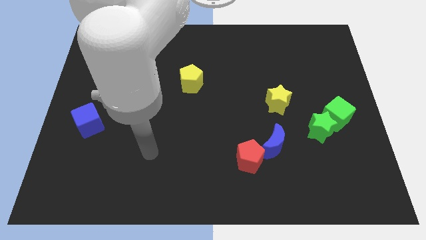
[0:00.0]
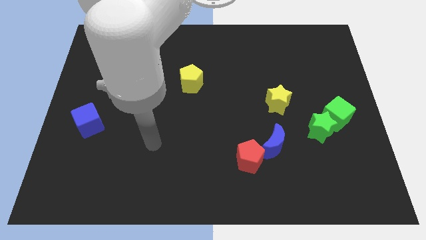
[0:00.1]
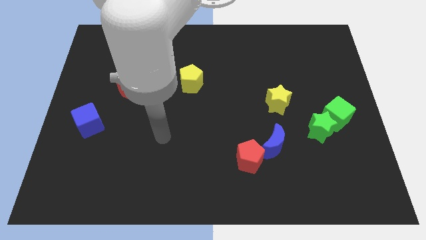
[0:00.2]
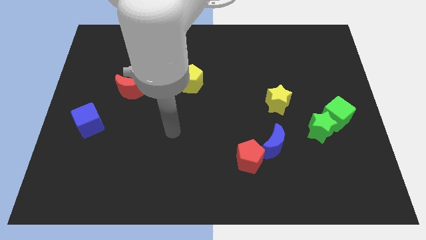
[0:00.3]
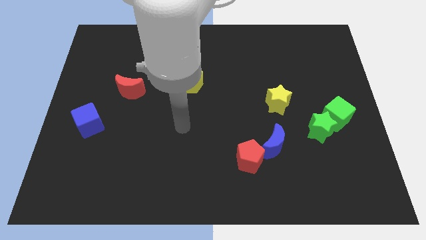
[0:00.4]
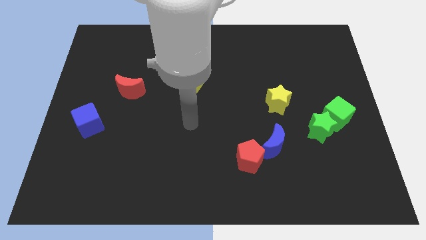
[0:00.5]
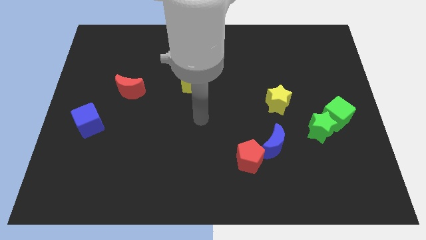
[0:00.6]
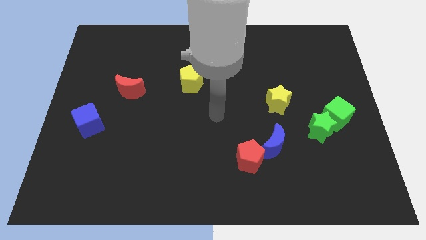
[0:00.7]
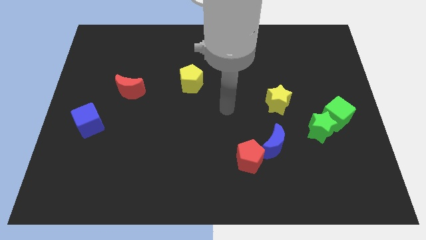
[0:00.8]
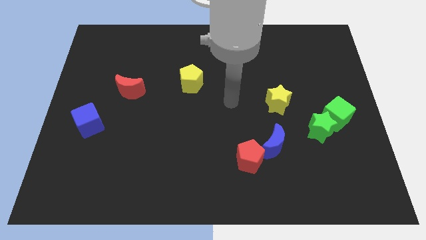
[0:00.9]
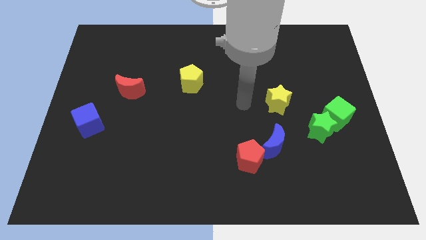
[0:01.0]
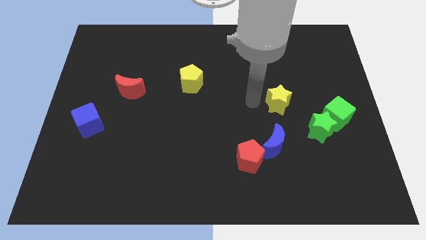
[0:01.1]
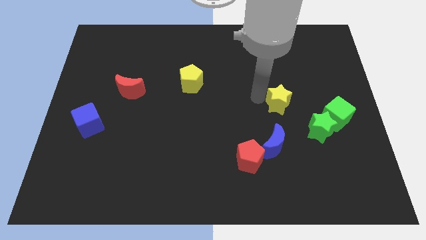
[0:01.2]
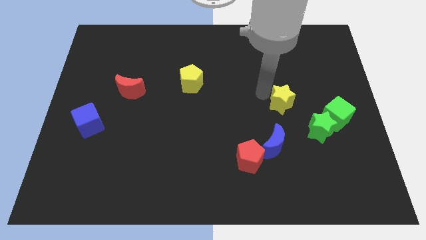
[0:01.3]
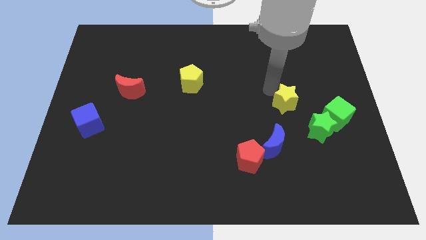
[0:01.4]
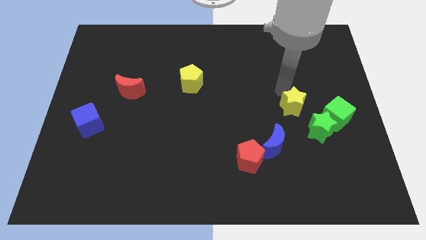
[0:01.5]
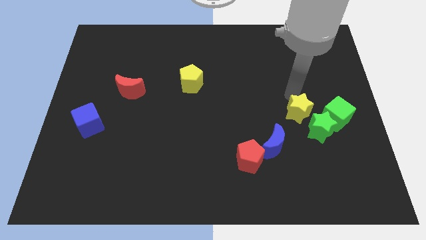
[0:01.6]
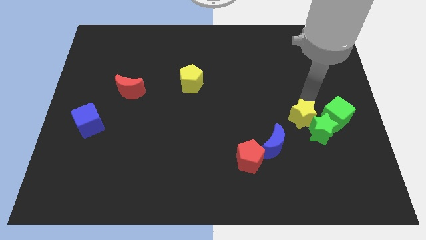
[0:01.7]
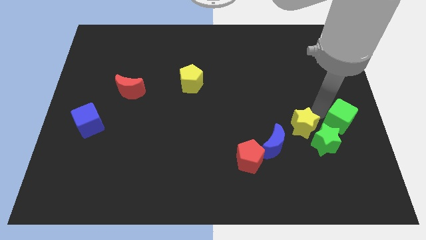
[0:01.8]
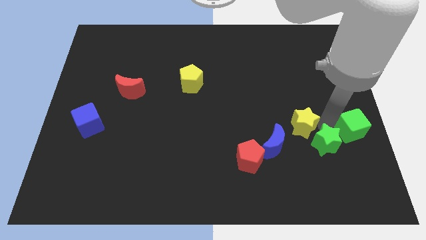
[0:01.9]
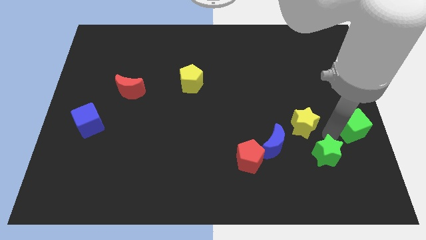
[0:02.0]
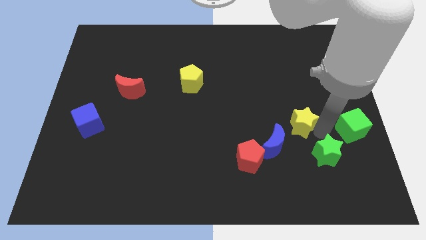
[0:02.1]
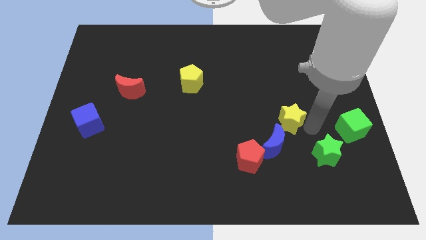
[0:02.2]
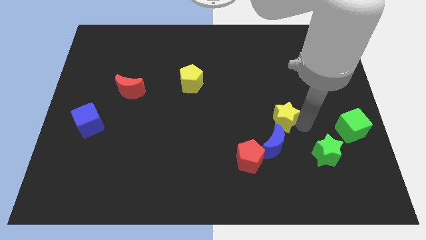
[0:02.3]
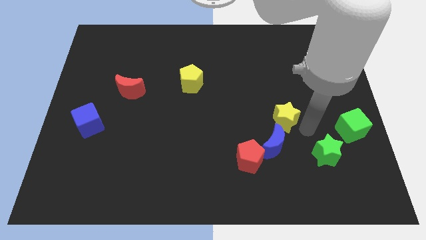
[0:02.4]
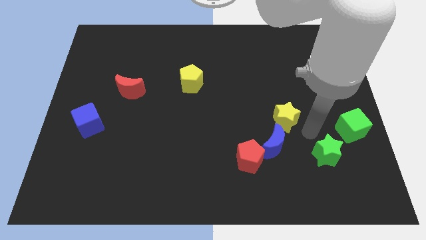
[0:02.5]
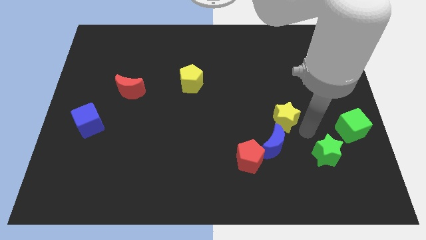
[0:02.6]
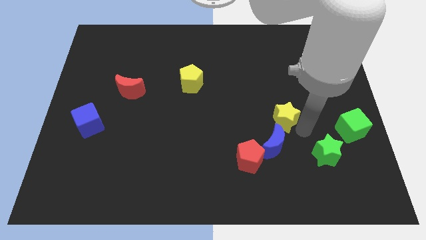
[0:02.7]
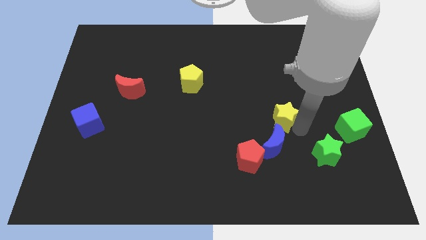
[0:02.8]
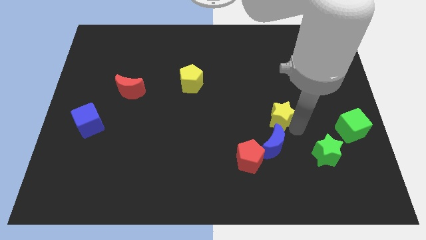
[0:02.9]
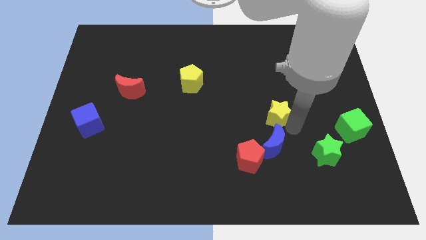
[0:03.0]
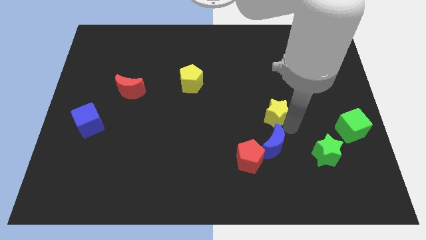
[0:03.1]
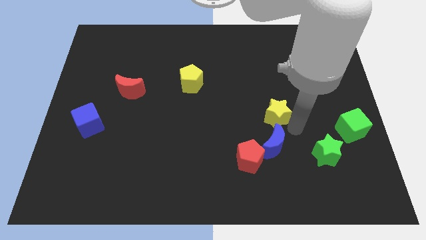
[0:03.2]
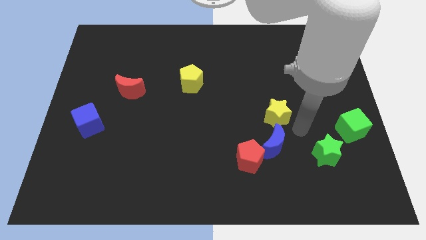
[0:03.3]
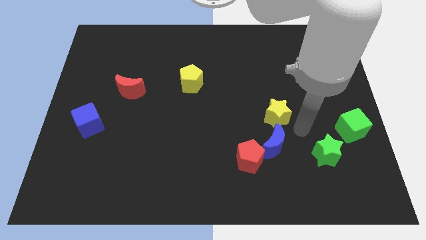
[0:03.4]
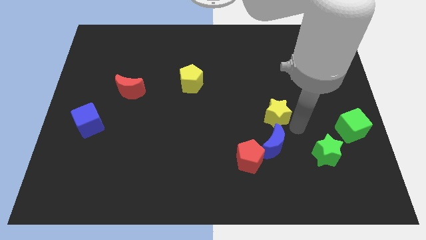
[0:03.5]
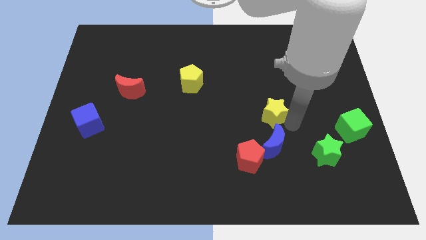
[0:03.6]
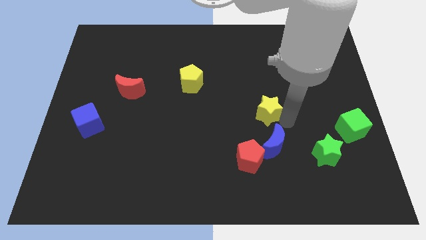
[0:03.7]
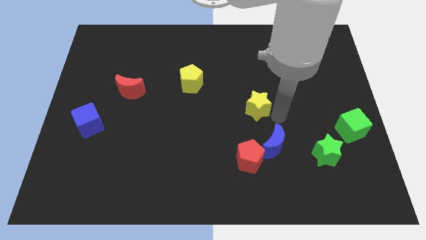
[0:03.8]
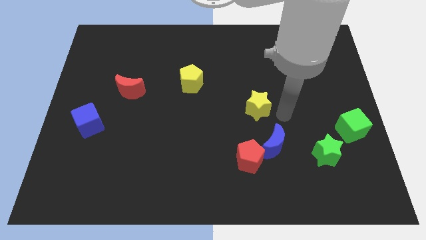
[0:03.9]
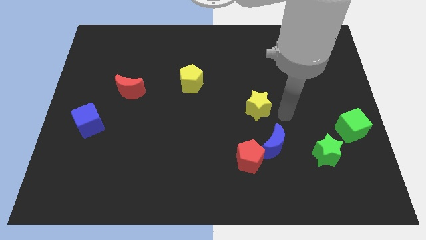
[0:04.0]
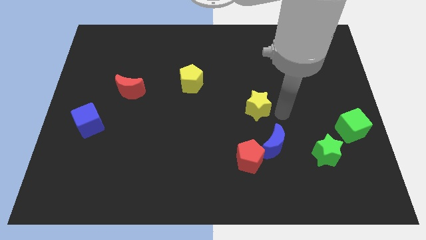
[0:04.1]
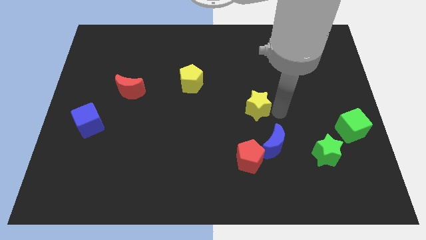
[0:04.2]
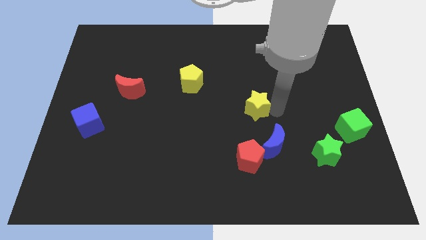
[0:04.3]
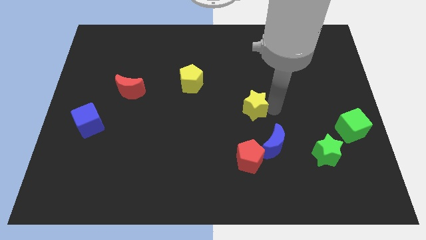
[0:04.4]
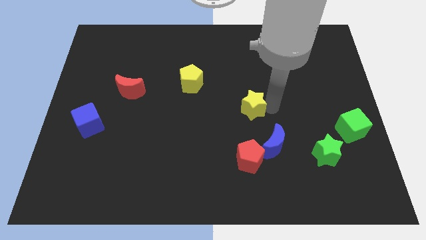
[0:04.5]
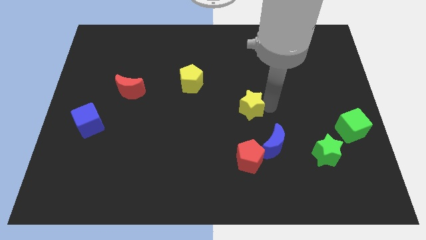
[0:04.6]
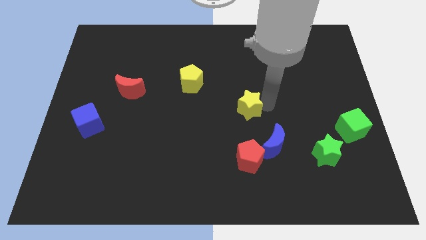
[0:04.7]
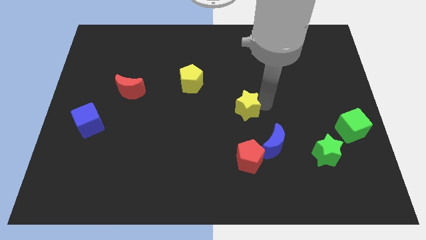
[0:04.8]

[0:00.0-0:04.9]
slightly push the yellow star to the left

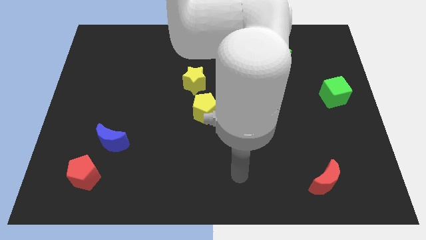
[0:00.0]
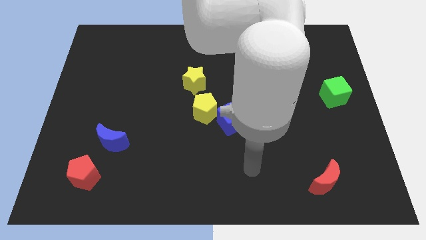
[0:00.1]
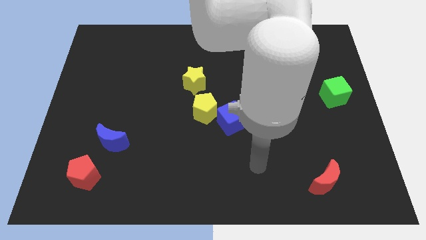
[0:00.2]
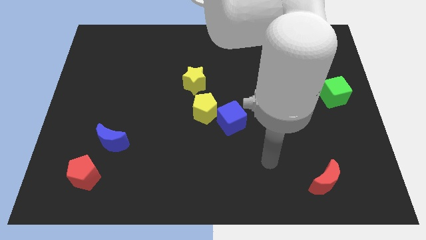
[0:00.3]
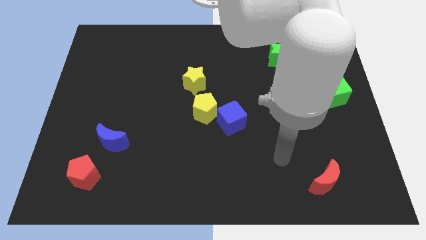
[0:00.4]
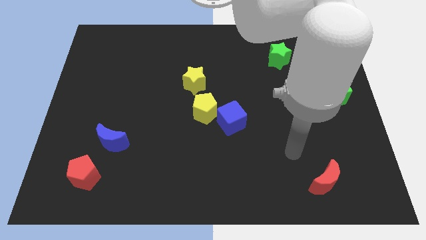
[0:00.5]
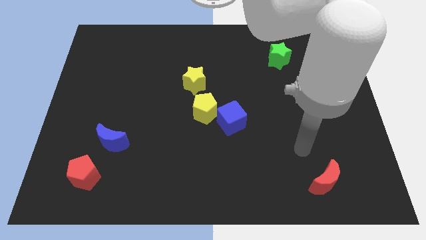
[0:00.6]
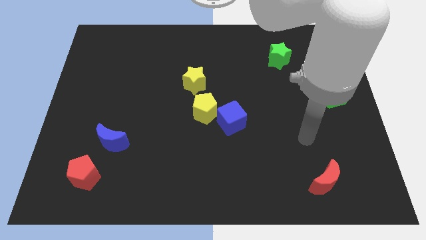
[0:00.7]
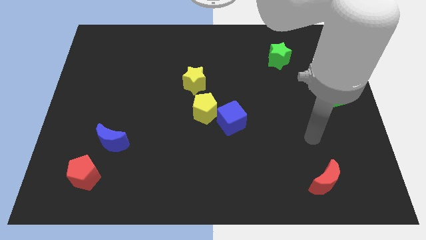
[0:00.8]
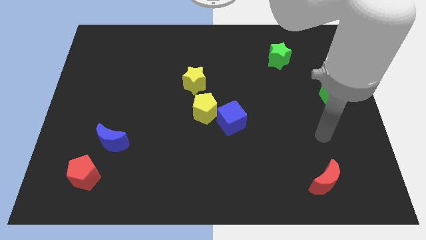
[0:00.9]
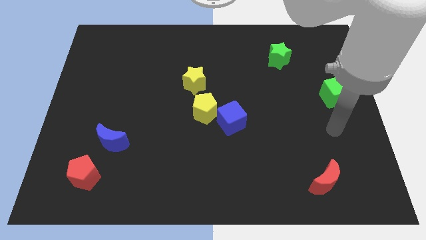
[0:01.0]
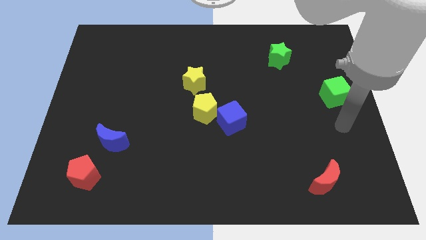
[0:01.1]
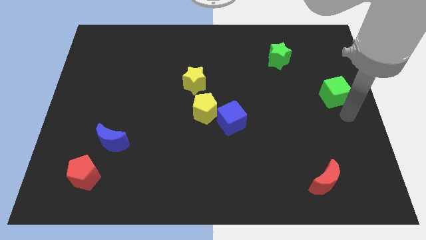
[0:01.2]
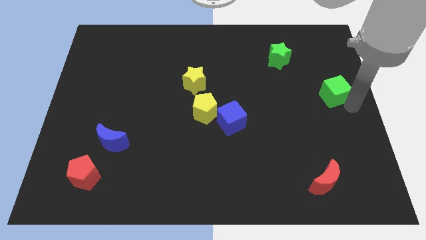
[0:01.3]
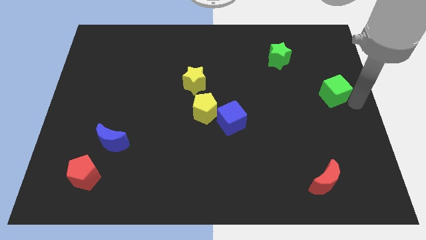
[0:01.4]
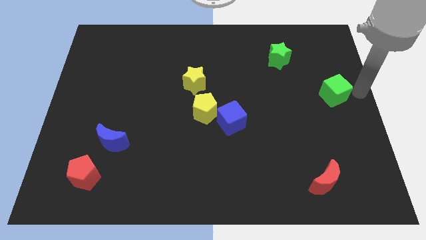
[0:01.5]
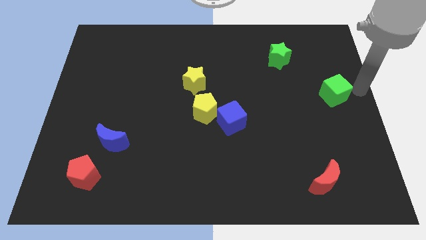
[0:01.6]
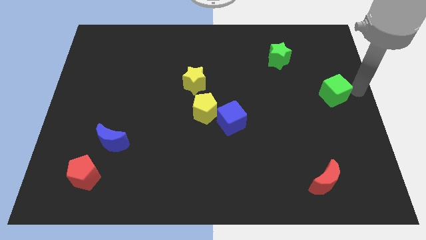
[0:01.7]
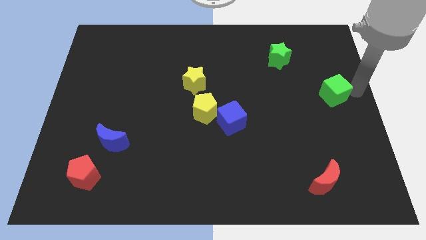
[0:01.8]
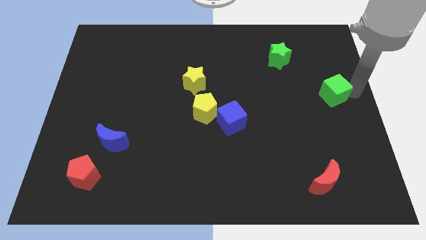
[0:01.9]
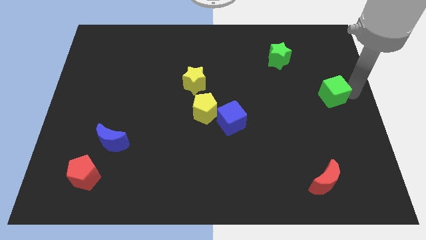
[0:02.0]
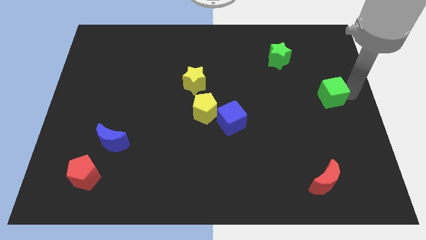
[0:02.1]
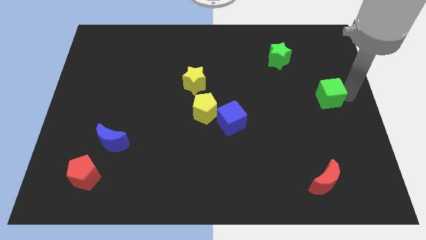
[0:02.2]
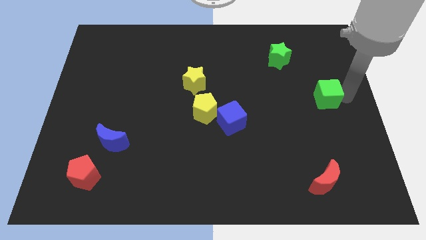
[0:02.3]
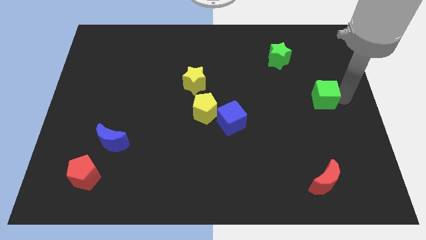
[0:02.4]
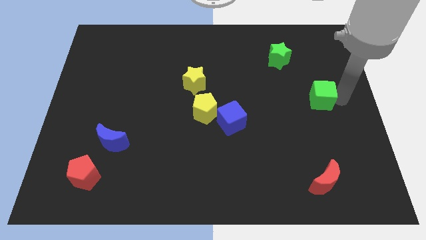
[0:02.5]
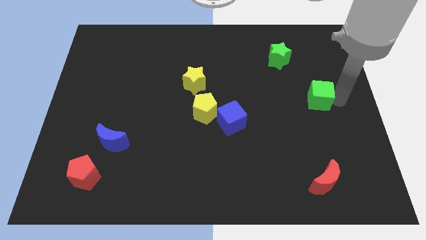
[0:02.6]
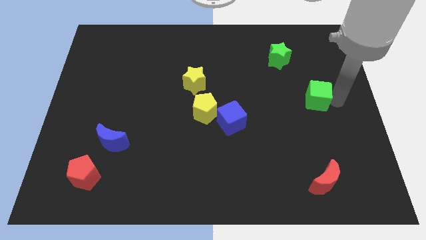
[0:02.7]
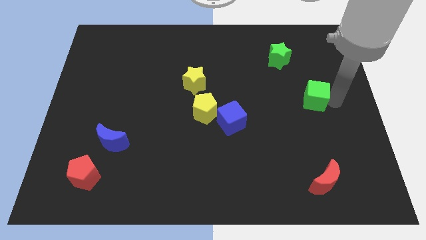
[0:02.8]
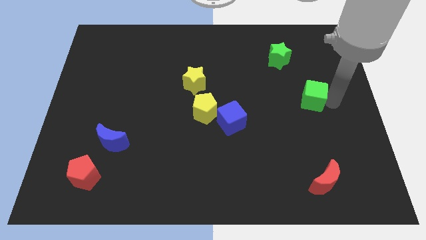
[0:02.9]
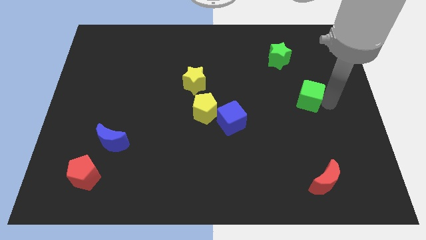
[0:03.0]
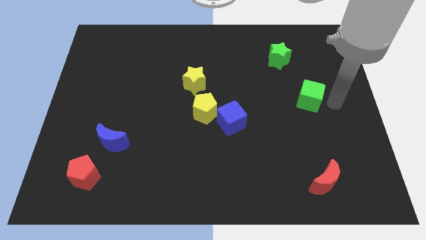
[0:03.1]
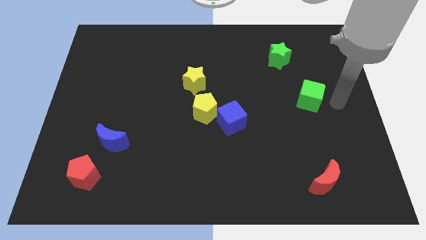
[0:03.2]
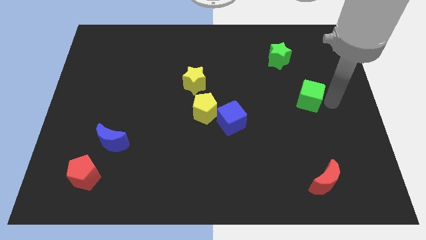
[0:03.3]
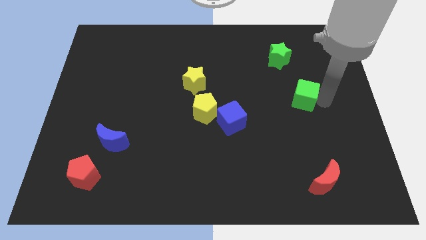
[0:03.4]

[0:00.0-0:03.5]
move the green cube left slightly
